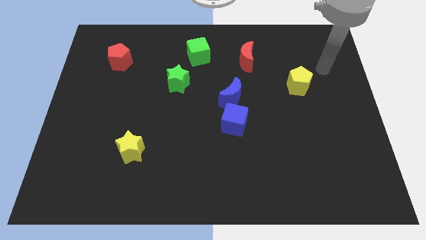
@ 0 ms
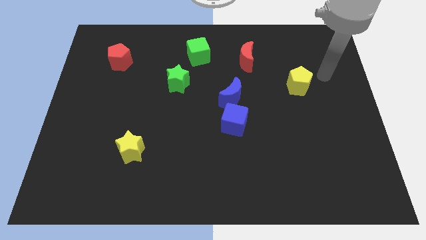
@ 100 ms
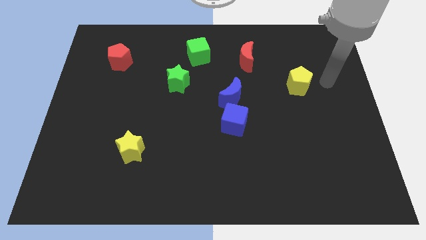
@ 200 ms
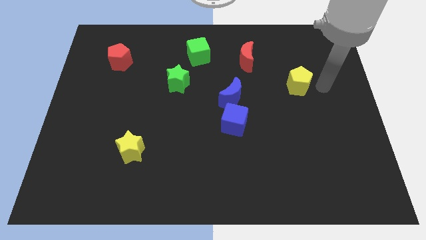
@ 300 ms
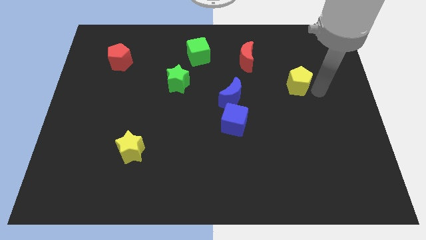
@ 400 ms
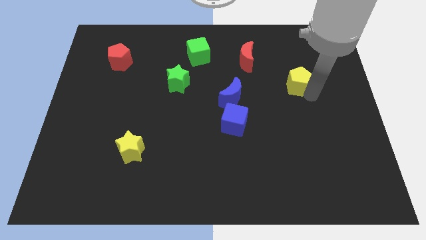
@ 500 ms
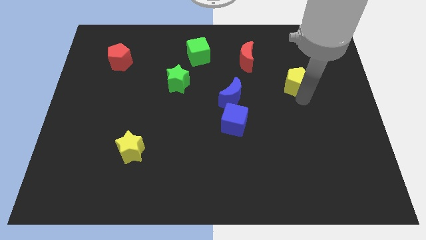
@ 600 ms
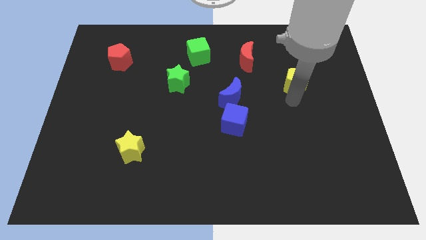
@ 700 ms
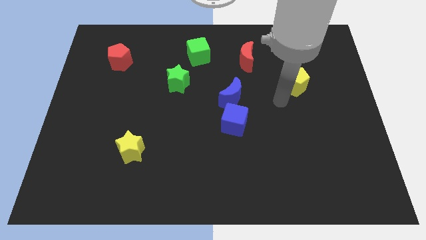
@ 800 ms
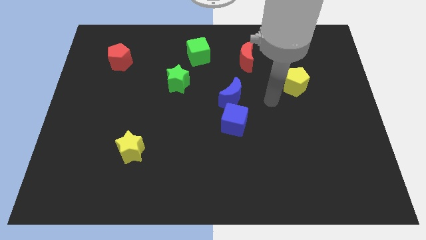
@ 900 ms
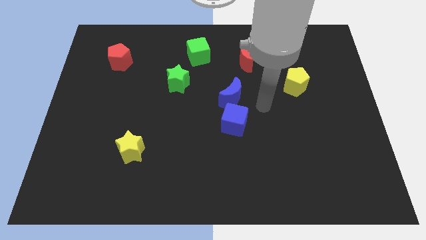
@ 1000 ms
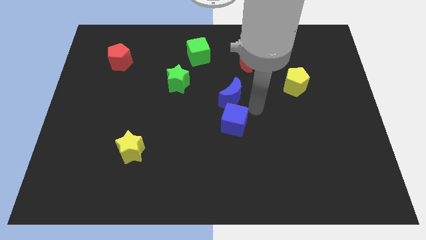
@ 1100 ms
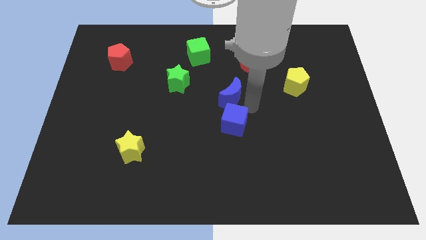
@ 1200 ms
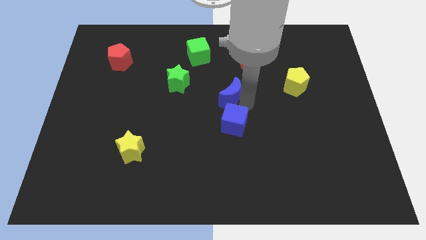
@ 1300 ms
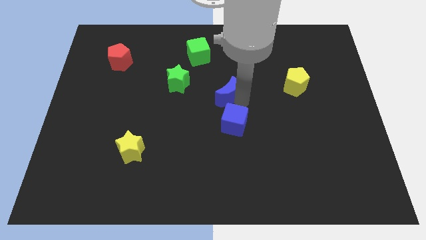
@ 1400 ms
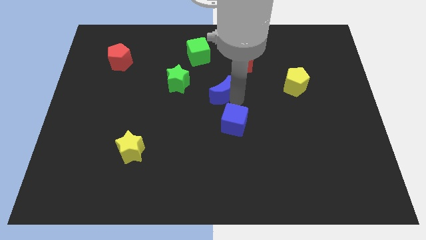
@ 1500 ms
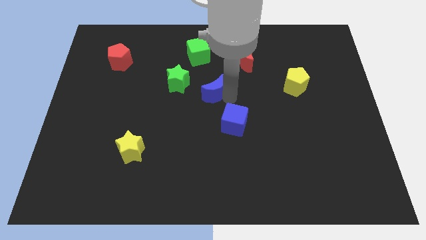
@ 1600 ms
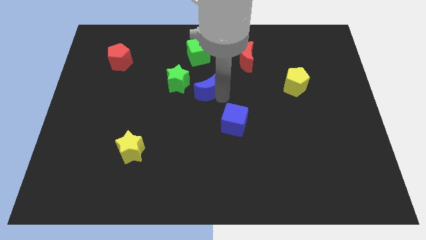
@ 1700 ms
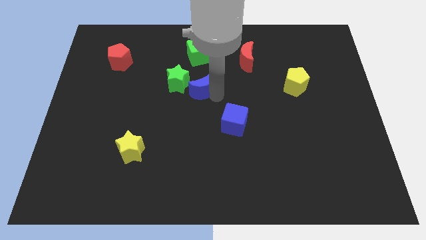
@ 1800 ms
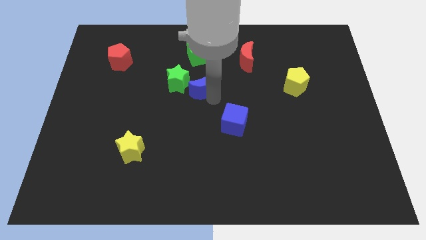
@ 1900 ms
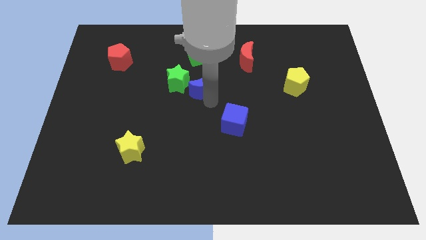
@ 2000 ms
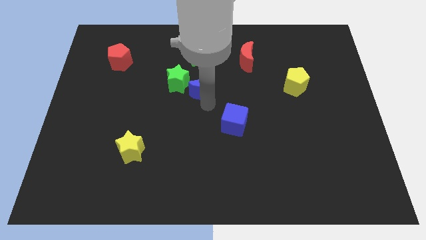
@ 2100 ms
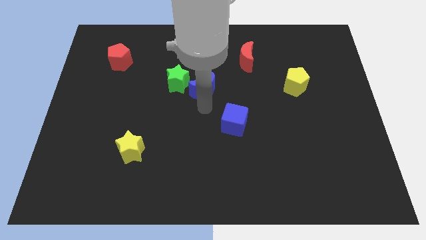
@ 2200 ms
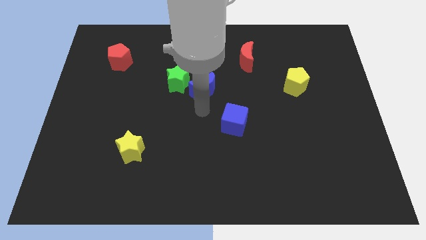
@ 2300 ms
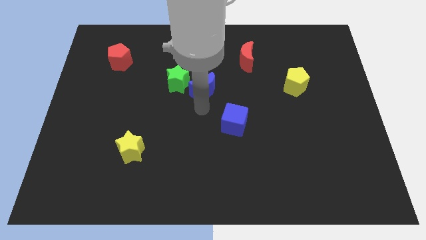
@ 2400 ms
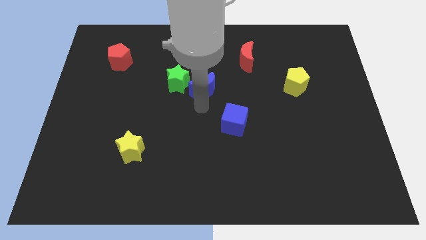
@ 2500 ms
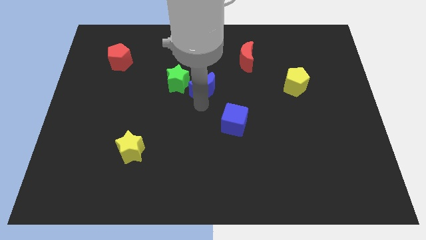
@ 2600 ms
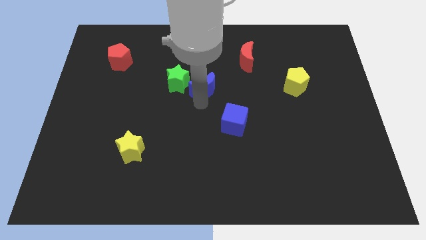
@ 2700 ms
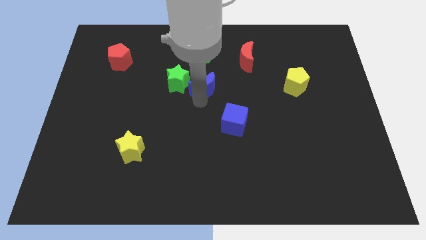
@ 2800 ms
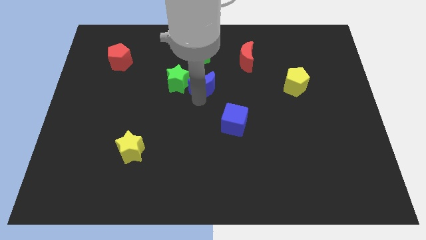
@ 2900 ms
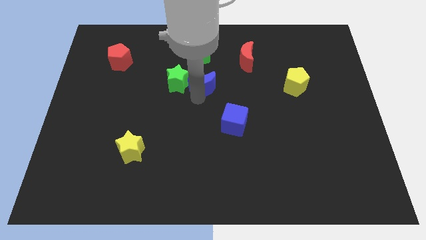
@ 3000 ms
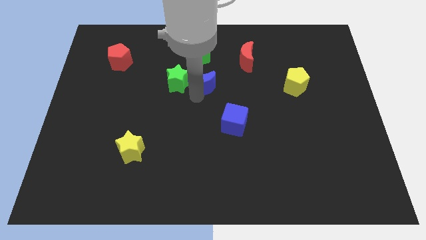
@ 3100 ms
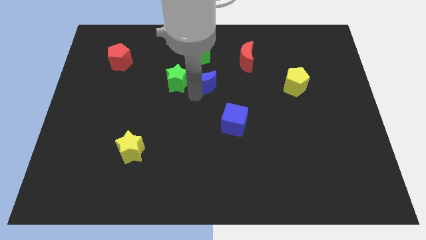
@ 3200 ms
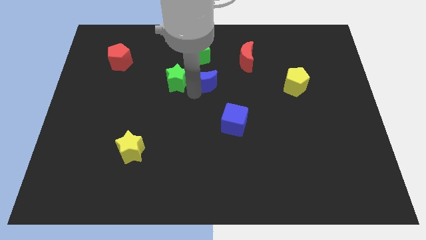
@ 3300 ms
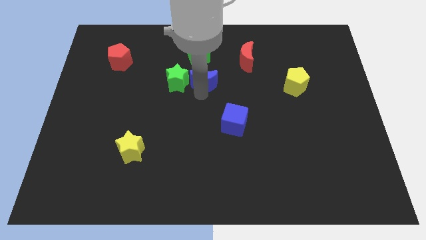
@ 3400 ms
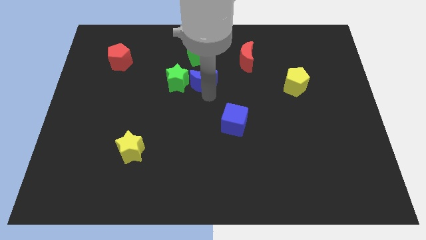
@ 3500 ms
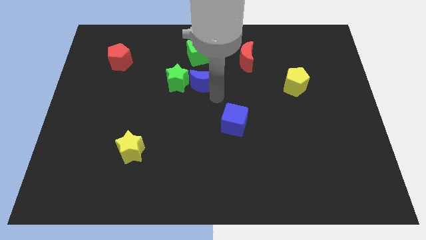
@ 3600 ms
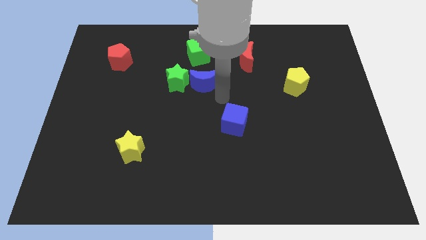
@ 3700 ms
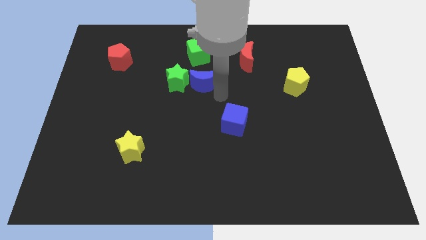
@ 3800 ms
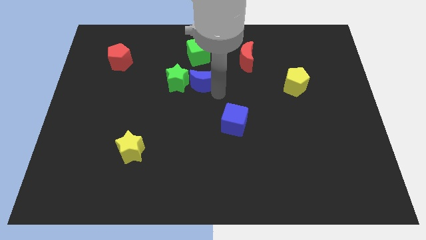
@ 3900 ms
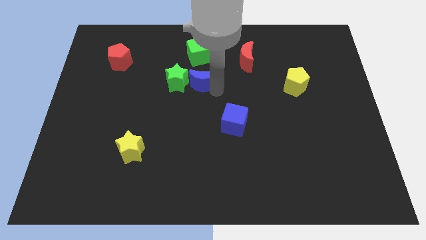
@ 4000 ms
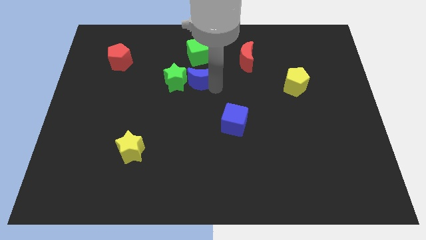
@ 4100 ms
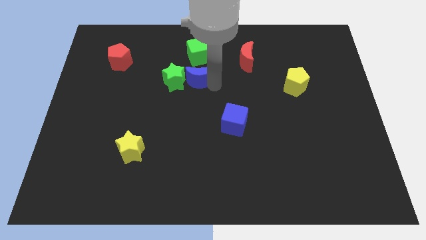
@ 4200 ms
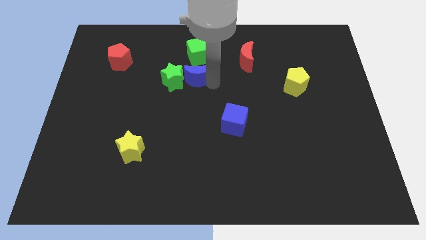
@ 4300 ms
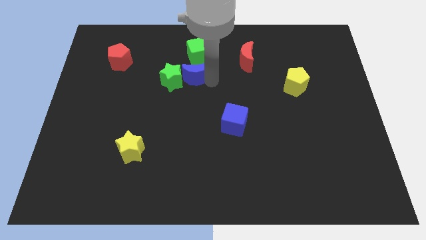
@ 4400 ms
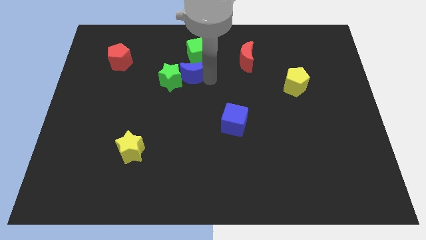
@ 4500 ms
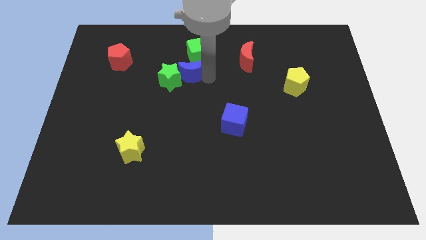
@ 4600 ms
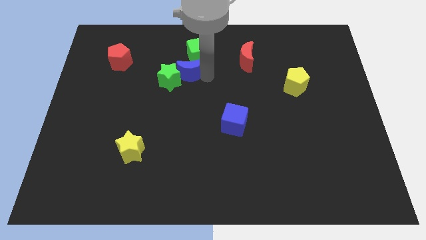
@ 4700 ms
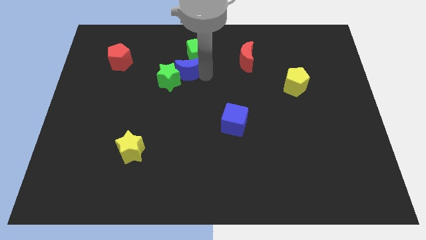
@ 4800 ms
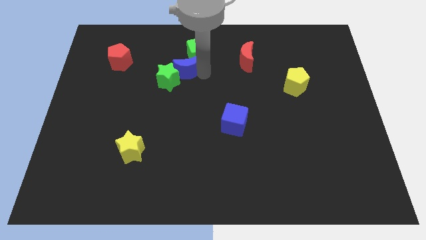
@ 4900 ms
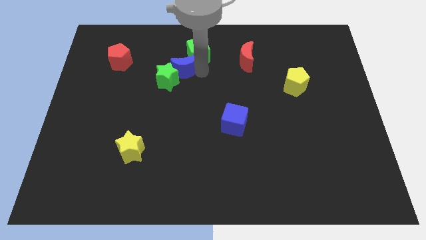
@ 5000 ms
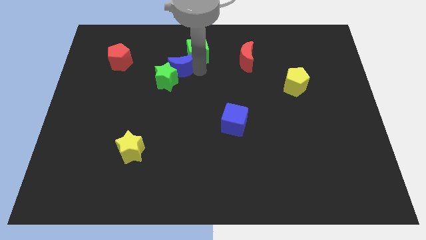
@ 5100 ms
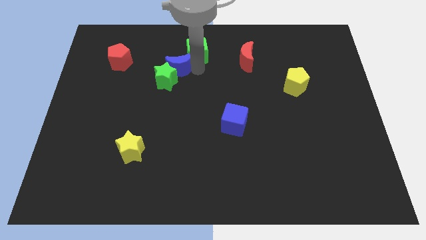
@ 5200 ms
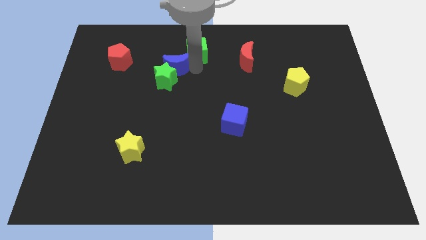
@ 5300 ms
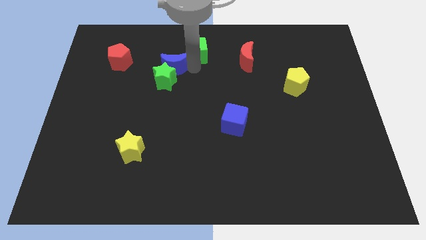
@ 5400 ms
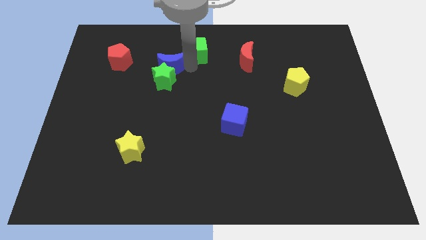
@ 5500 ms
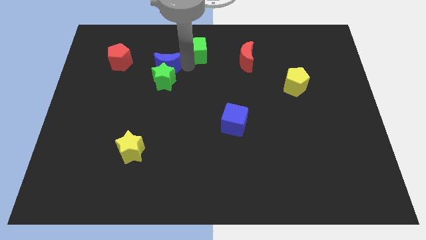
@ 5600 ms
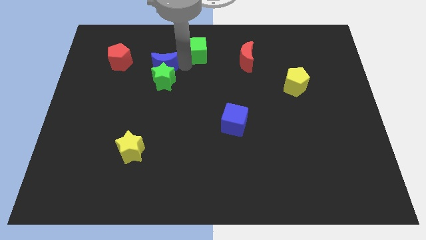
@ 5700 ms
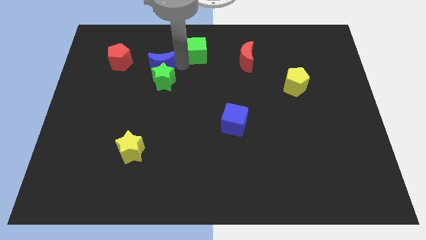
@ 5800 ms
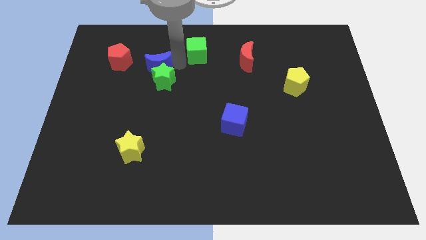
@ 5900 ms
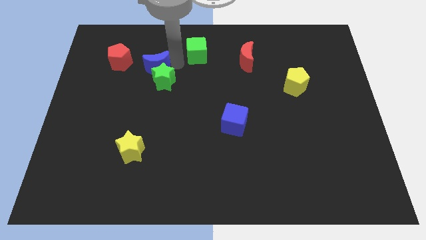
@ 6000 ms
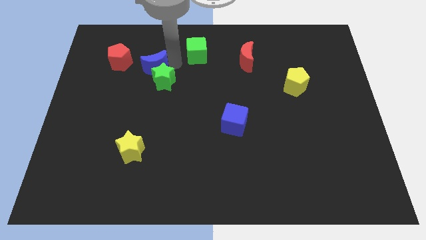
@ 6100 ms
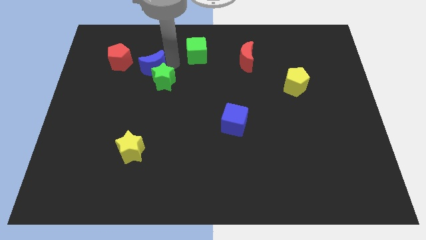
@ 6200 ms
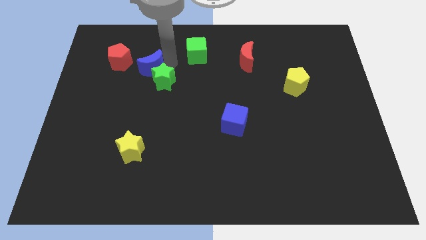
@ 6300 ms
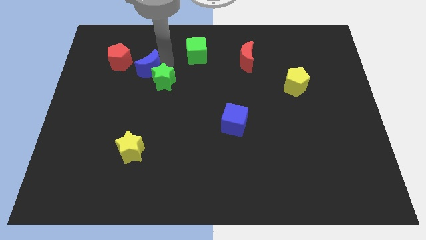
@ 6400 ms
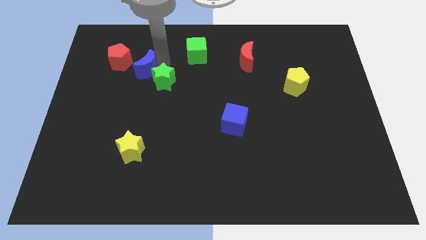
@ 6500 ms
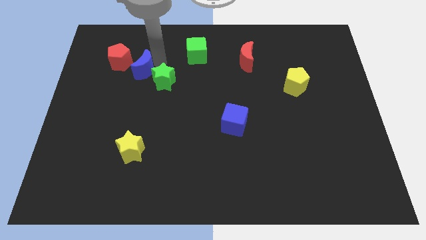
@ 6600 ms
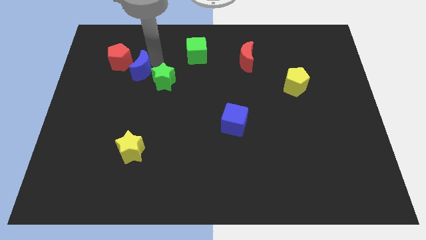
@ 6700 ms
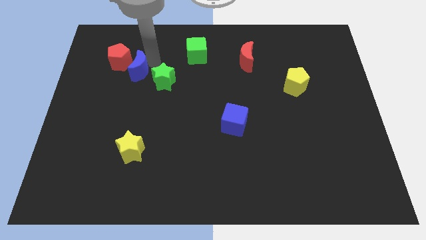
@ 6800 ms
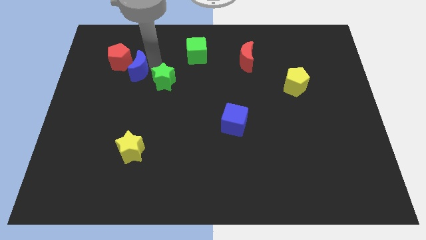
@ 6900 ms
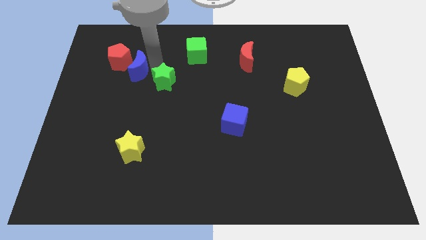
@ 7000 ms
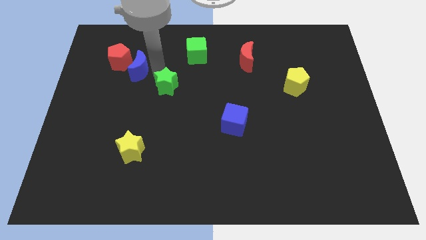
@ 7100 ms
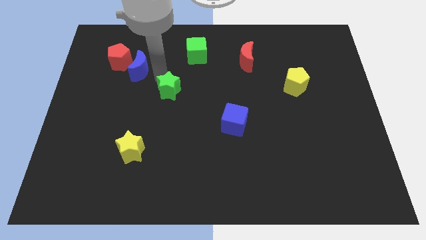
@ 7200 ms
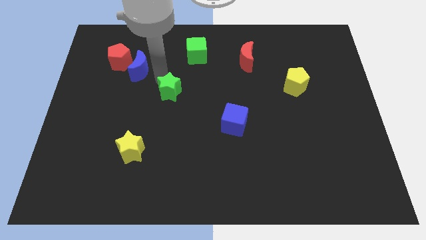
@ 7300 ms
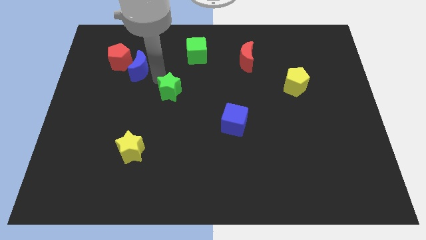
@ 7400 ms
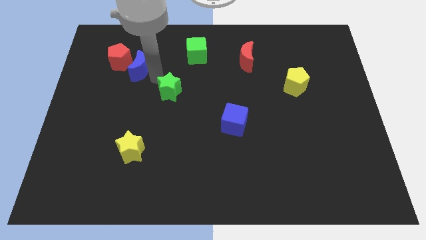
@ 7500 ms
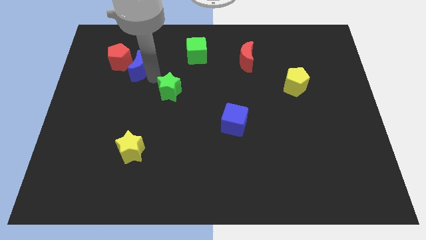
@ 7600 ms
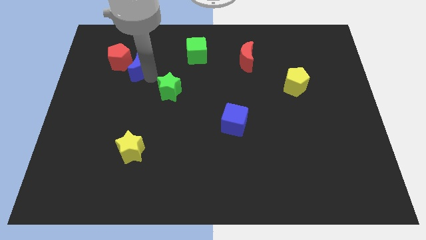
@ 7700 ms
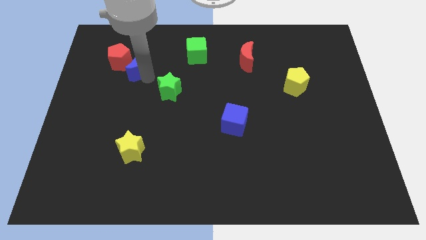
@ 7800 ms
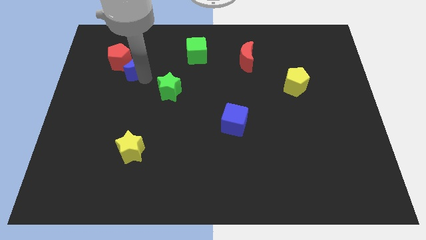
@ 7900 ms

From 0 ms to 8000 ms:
push the blue moon next to the red pentagon
